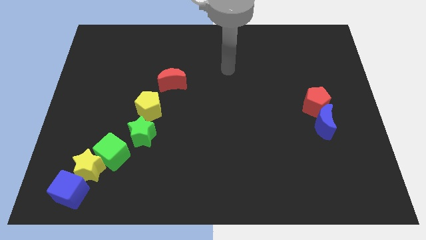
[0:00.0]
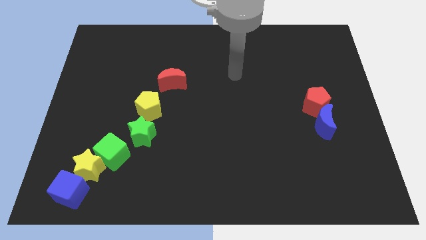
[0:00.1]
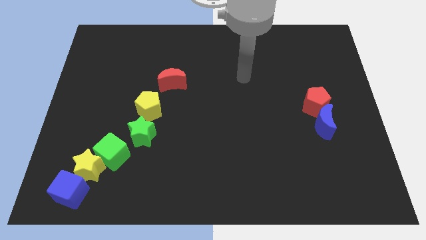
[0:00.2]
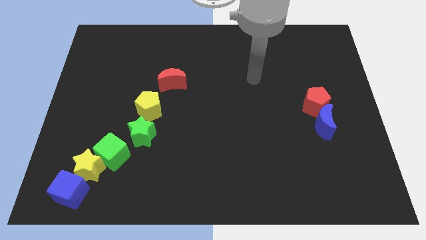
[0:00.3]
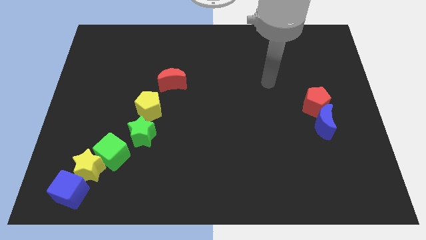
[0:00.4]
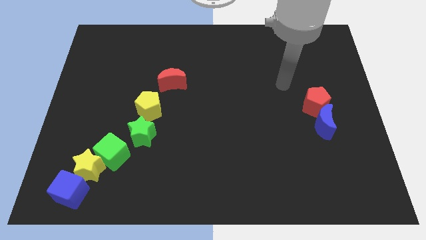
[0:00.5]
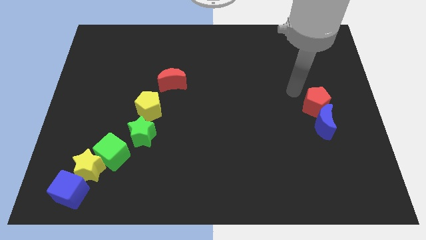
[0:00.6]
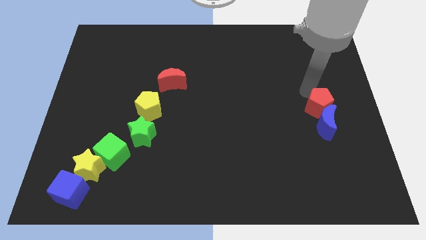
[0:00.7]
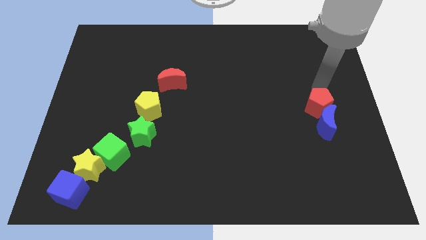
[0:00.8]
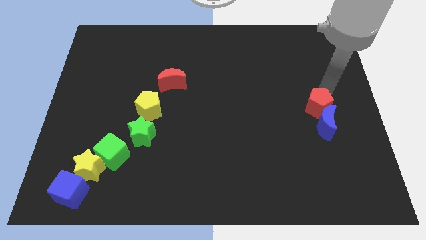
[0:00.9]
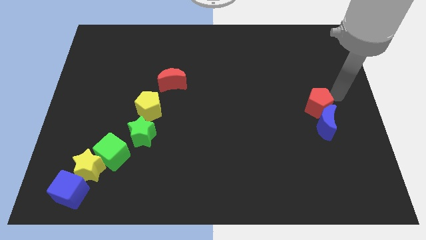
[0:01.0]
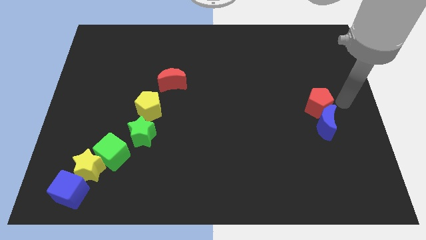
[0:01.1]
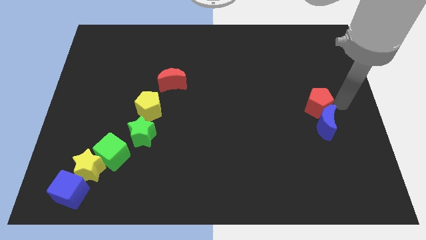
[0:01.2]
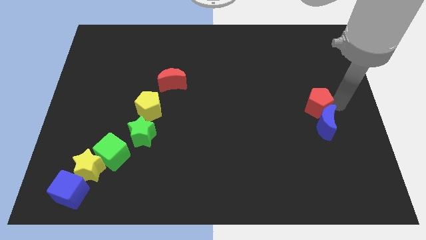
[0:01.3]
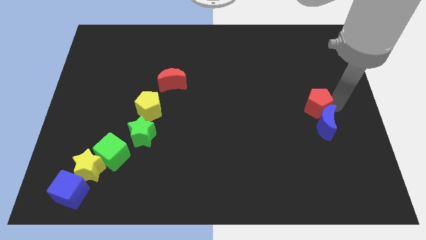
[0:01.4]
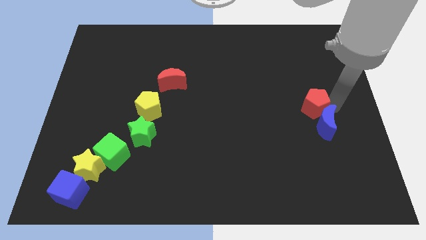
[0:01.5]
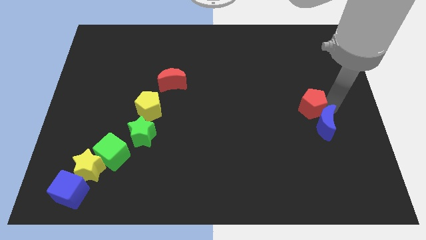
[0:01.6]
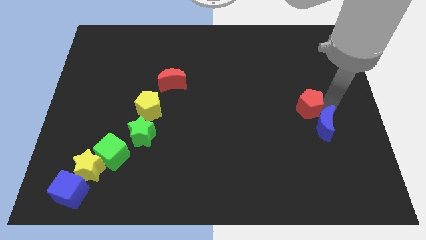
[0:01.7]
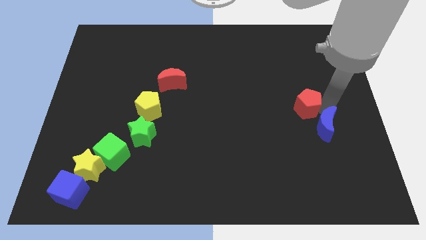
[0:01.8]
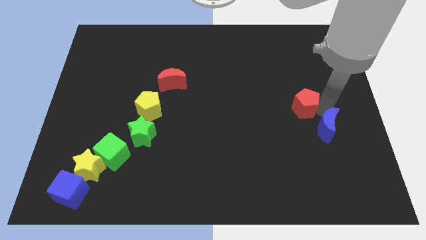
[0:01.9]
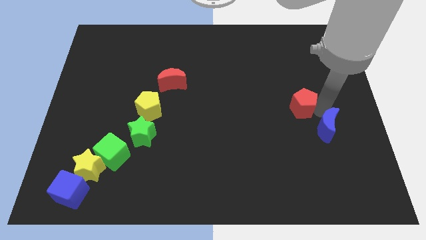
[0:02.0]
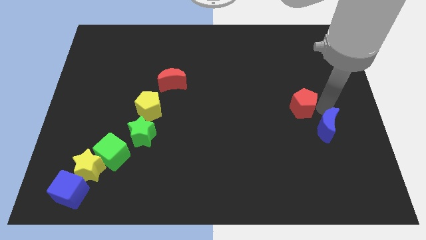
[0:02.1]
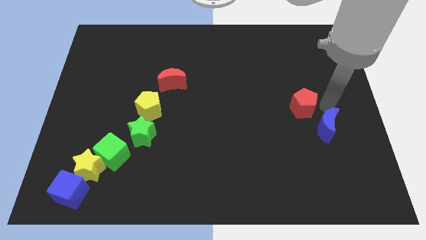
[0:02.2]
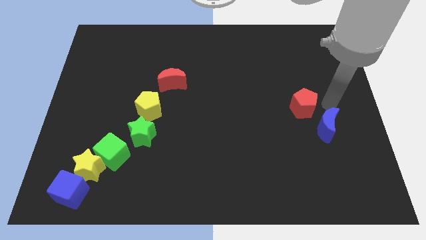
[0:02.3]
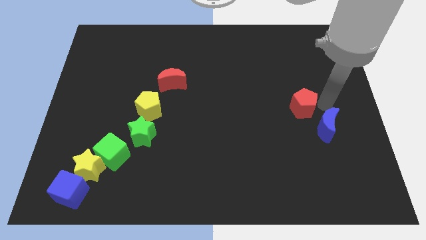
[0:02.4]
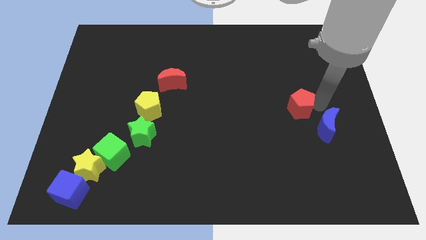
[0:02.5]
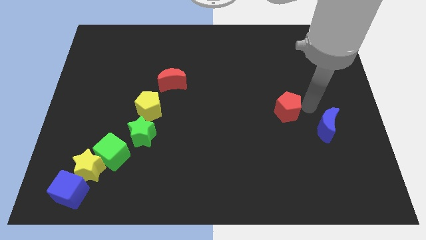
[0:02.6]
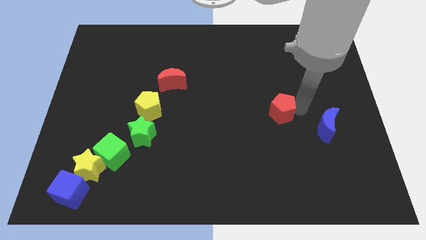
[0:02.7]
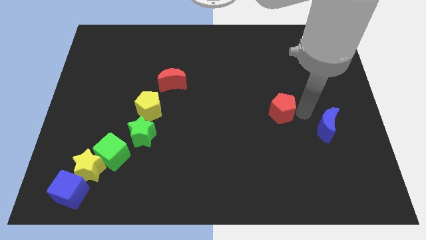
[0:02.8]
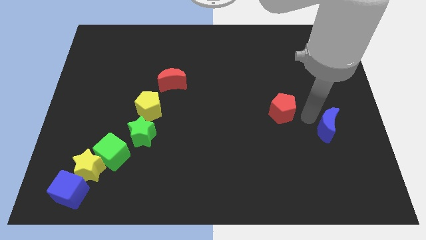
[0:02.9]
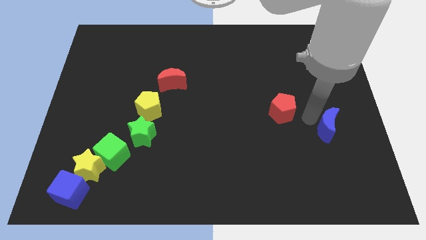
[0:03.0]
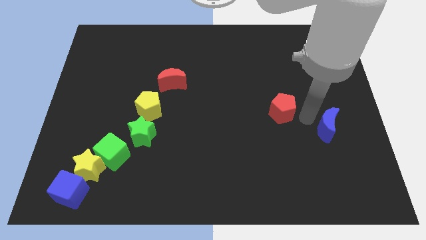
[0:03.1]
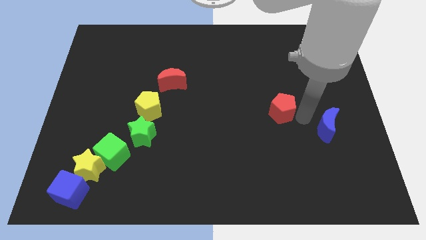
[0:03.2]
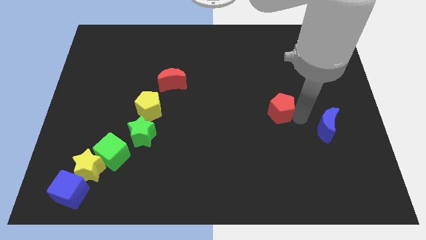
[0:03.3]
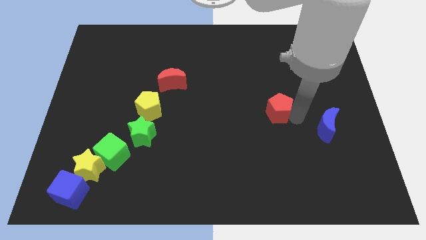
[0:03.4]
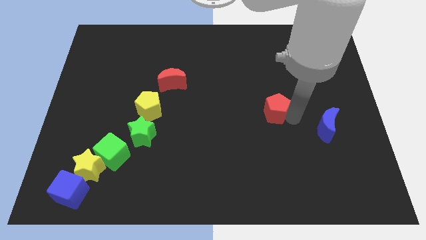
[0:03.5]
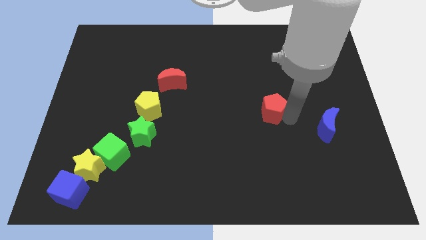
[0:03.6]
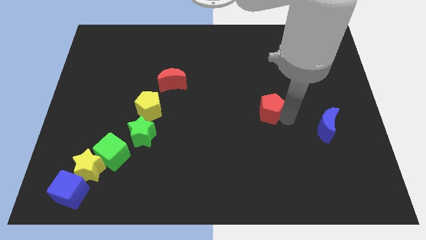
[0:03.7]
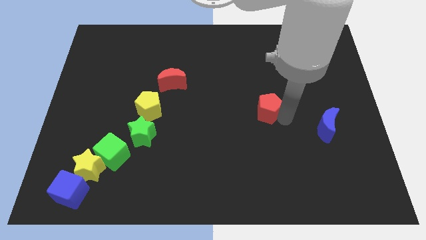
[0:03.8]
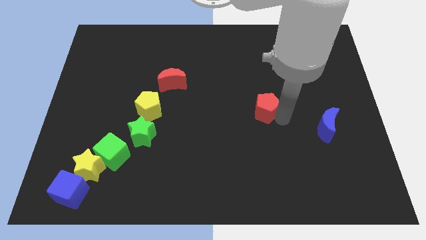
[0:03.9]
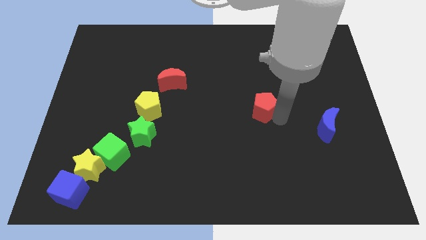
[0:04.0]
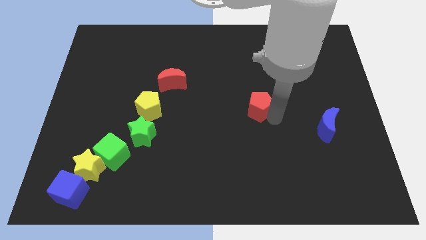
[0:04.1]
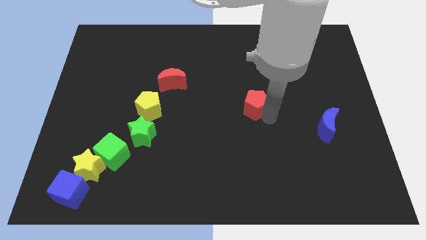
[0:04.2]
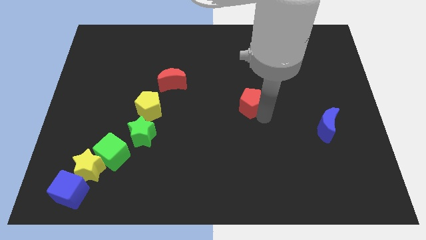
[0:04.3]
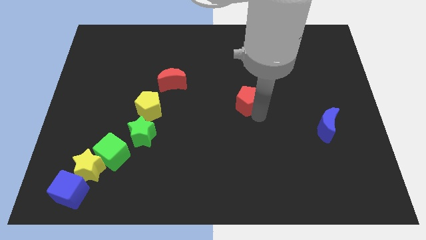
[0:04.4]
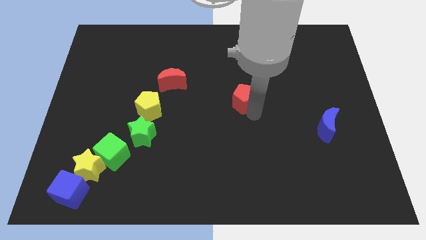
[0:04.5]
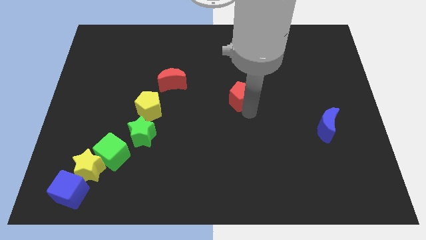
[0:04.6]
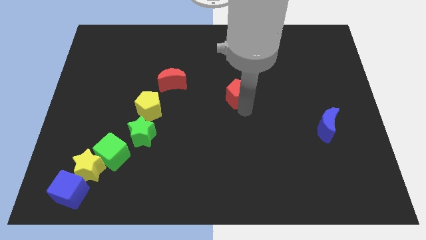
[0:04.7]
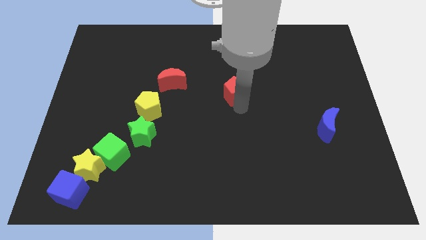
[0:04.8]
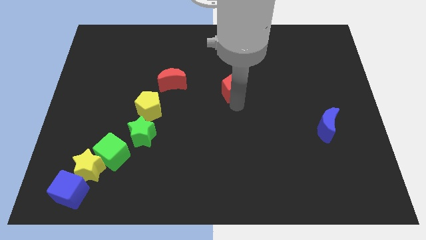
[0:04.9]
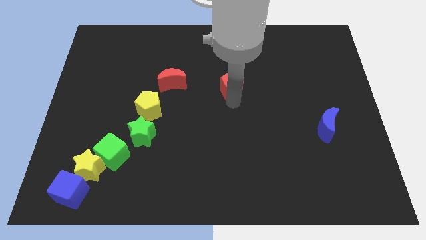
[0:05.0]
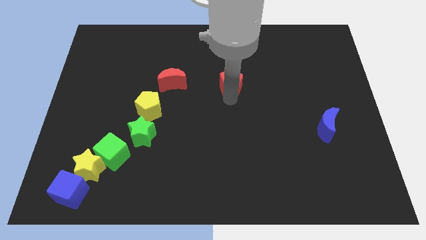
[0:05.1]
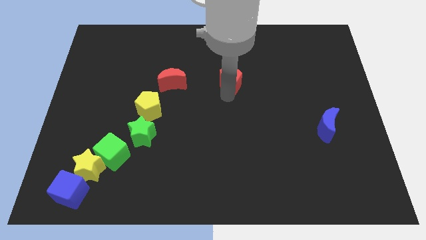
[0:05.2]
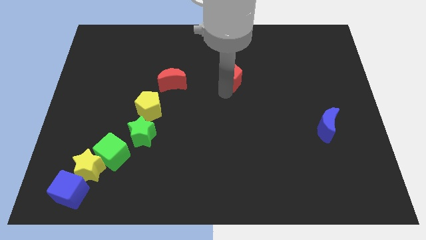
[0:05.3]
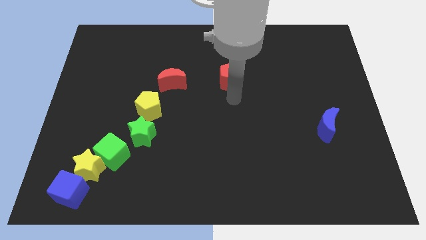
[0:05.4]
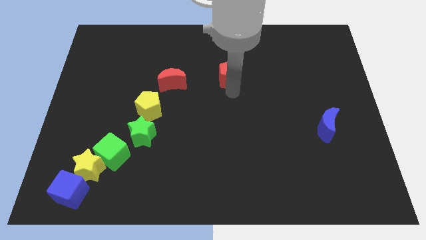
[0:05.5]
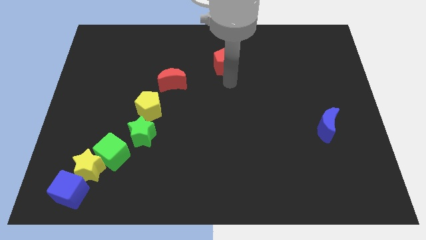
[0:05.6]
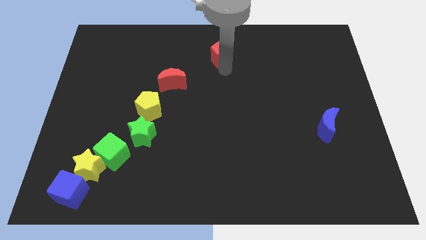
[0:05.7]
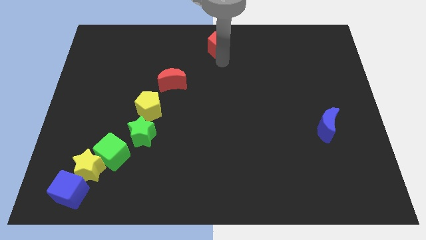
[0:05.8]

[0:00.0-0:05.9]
move the red pentagon to the top
